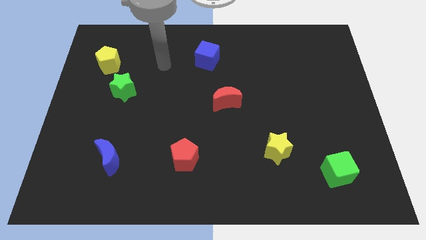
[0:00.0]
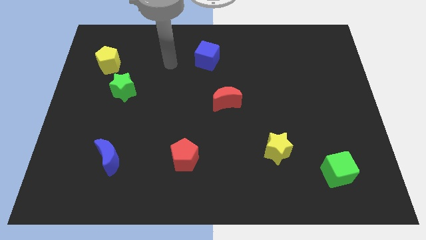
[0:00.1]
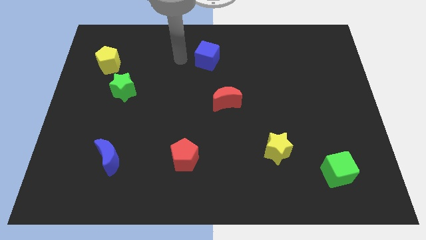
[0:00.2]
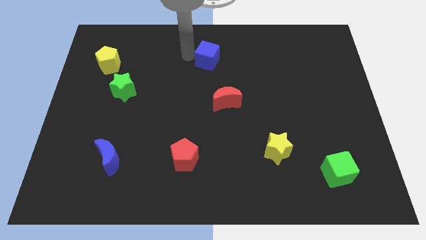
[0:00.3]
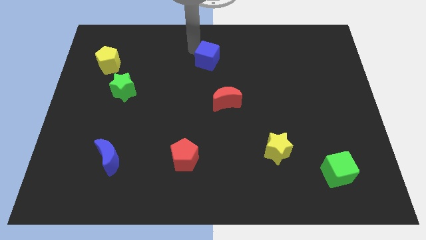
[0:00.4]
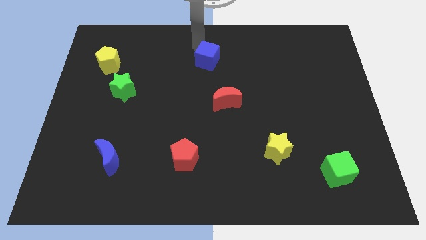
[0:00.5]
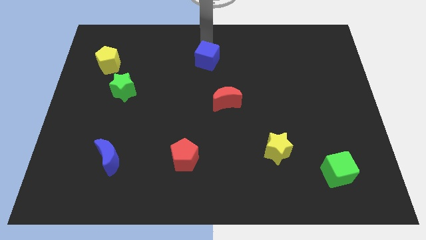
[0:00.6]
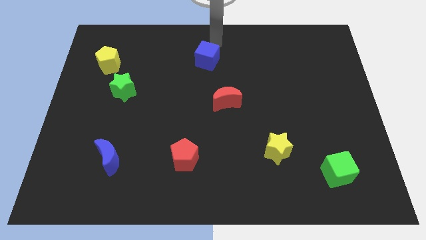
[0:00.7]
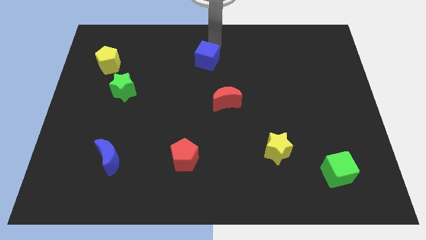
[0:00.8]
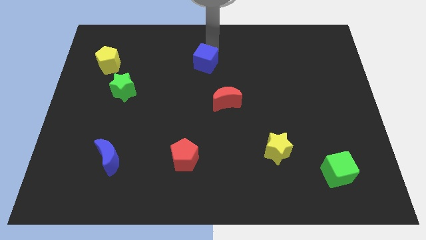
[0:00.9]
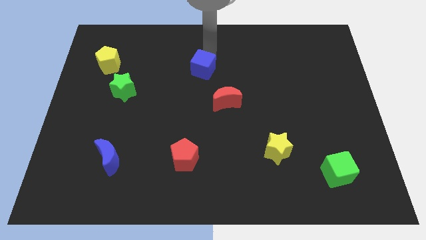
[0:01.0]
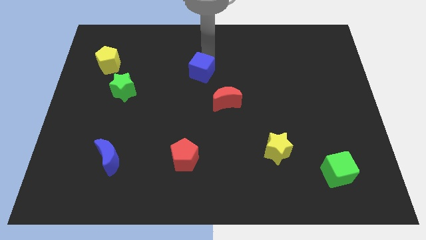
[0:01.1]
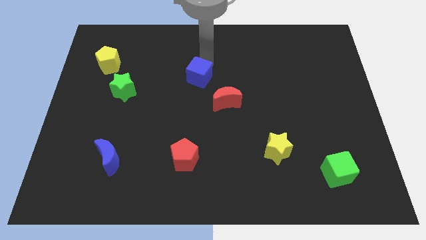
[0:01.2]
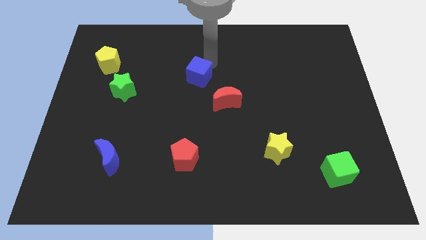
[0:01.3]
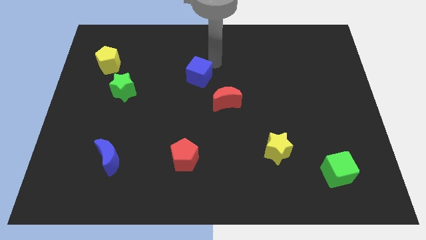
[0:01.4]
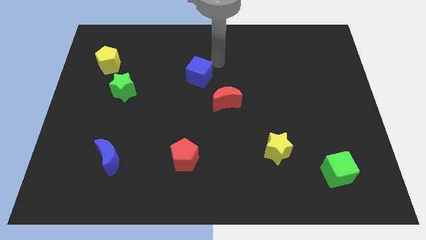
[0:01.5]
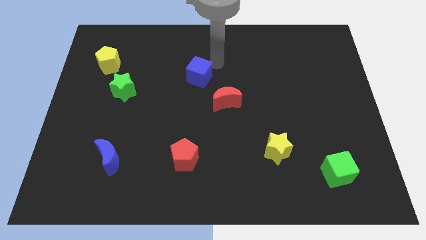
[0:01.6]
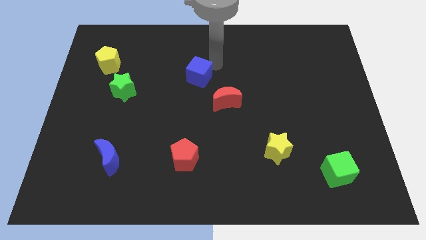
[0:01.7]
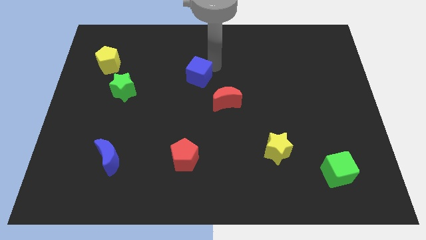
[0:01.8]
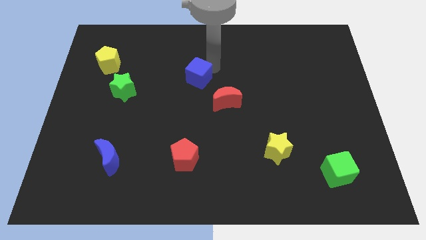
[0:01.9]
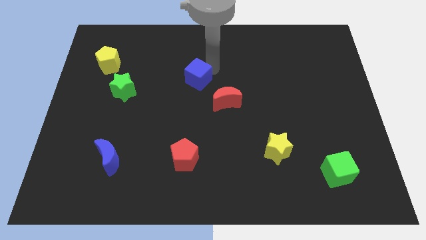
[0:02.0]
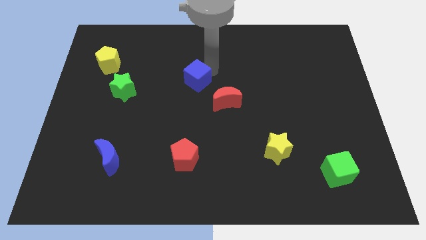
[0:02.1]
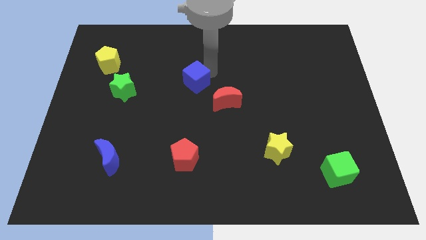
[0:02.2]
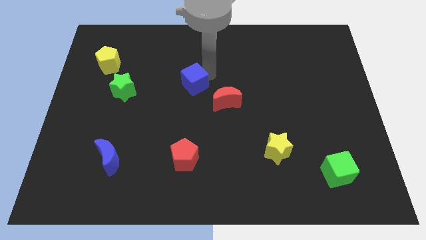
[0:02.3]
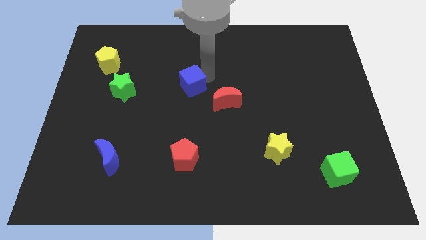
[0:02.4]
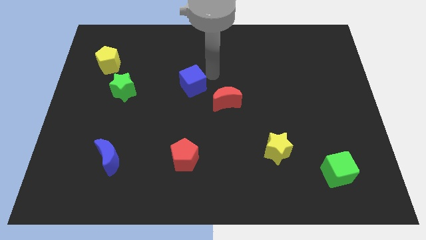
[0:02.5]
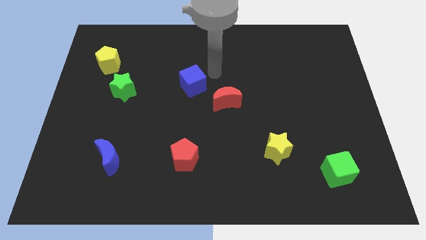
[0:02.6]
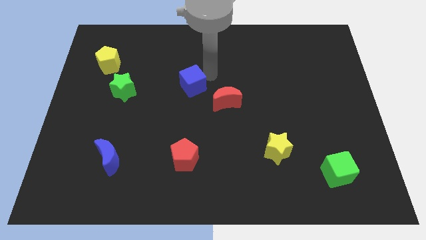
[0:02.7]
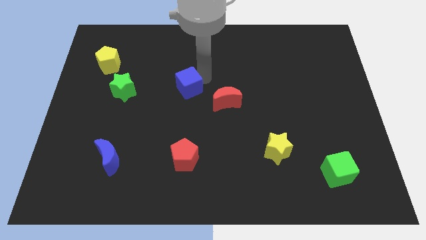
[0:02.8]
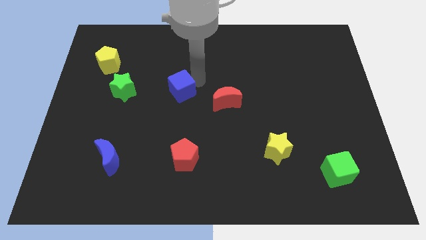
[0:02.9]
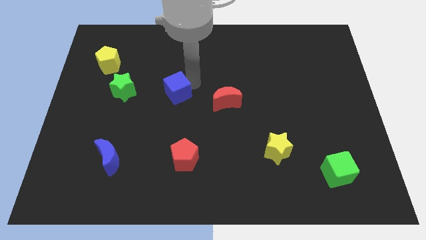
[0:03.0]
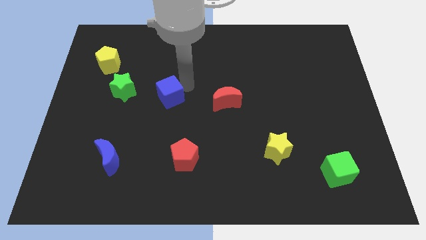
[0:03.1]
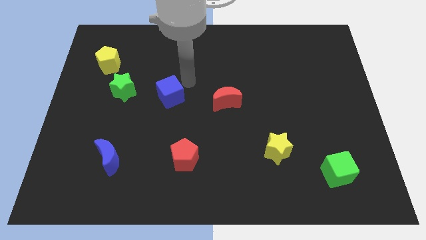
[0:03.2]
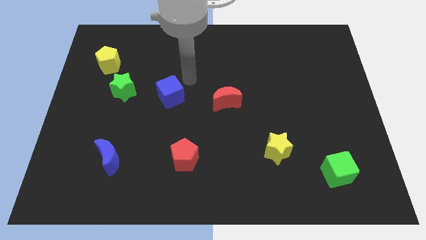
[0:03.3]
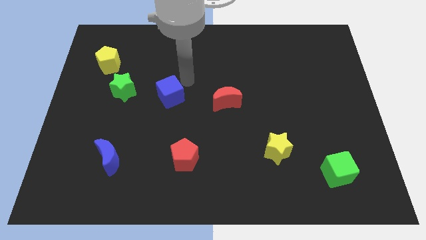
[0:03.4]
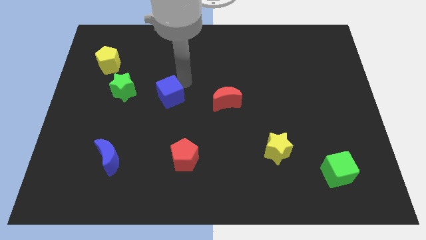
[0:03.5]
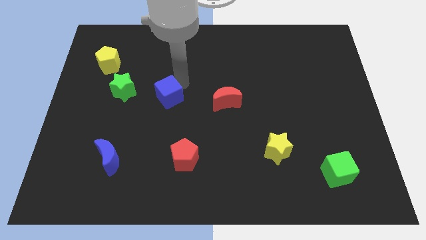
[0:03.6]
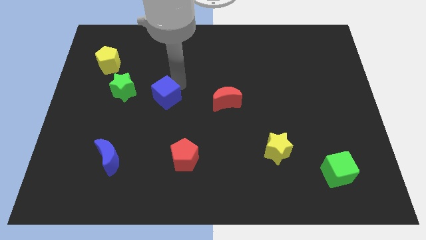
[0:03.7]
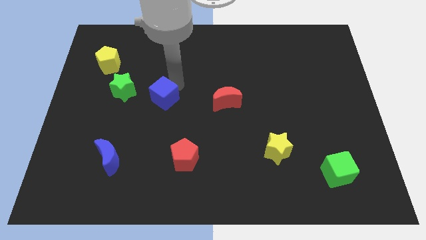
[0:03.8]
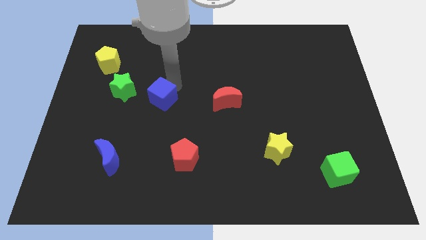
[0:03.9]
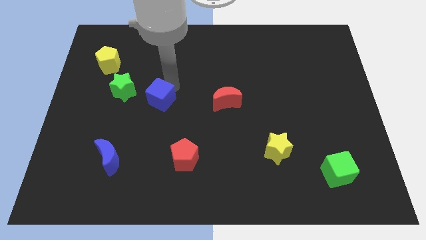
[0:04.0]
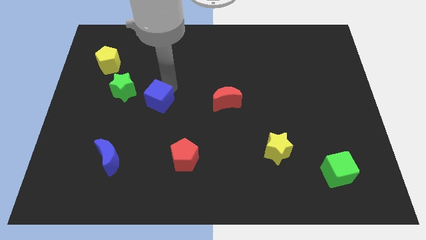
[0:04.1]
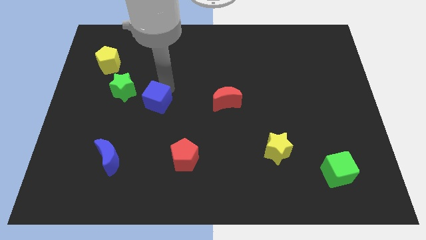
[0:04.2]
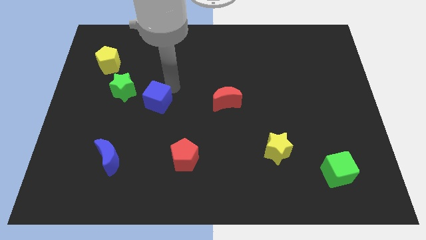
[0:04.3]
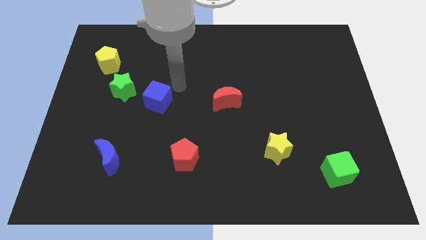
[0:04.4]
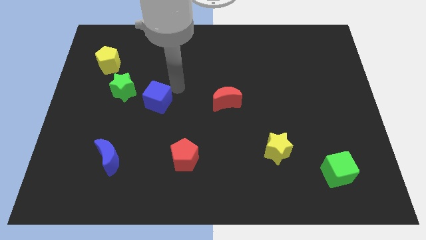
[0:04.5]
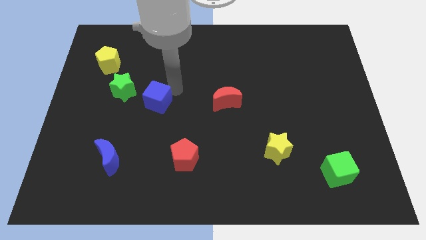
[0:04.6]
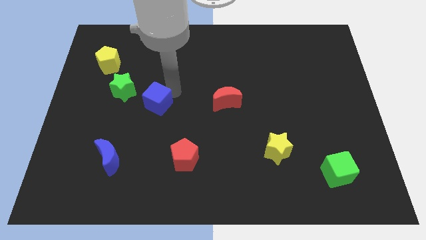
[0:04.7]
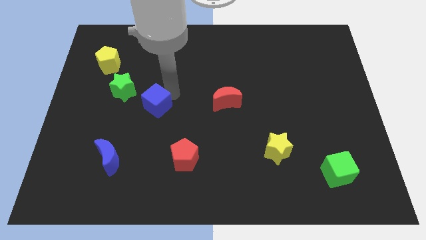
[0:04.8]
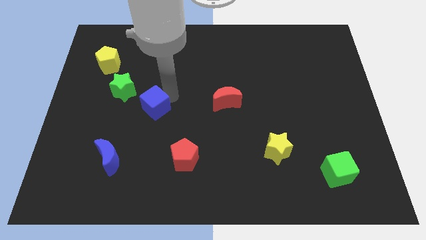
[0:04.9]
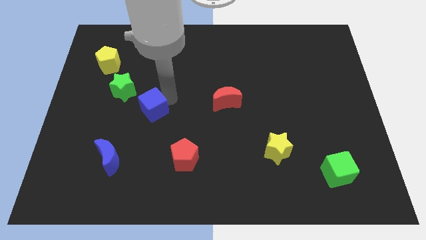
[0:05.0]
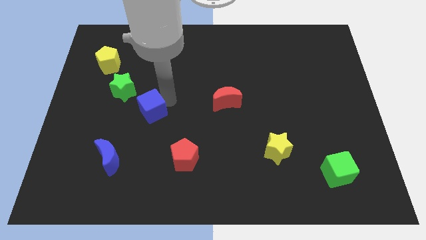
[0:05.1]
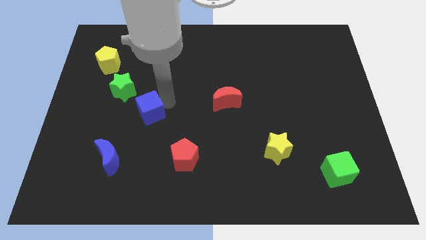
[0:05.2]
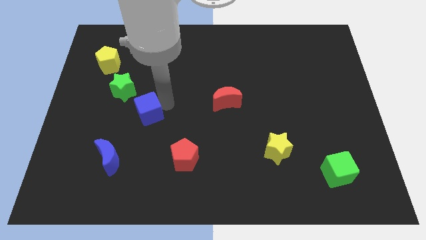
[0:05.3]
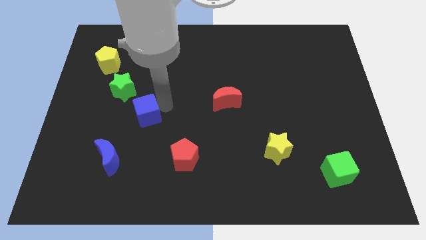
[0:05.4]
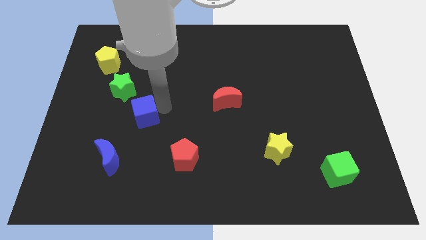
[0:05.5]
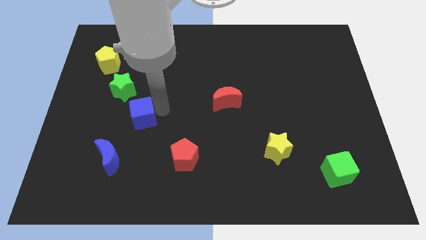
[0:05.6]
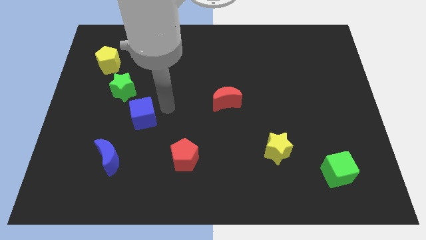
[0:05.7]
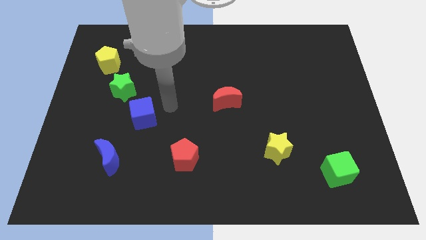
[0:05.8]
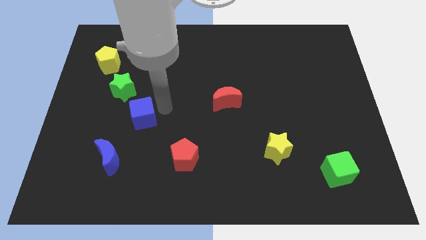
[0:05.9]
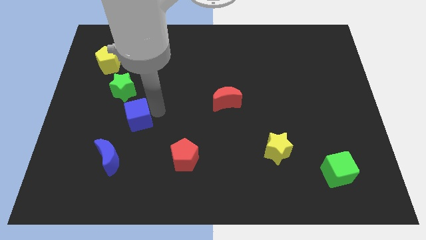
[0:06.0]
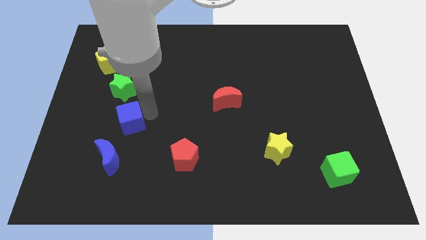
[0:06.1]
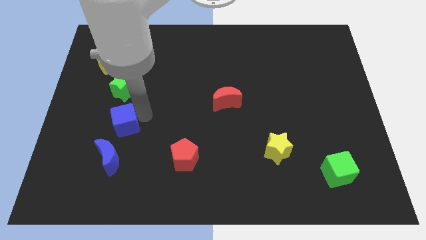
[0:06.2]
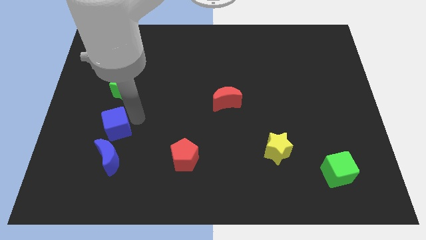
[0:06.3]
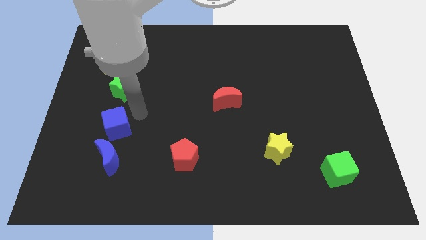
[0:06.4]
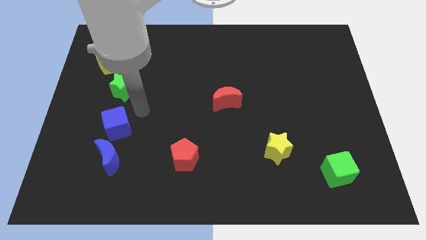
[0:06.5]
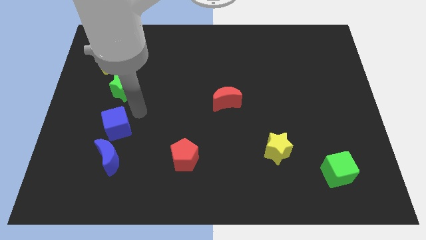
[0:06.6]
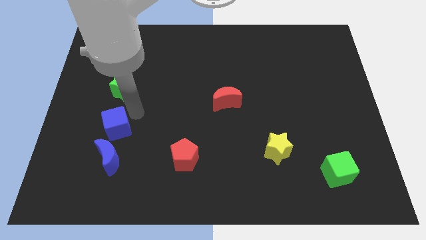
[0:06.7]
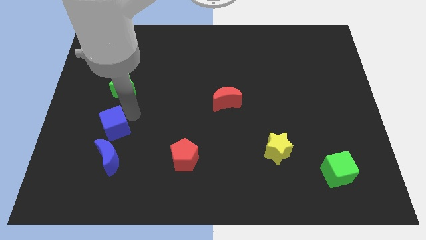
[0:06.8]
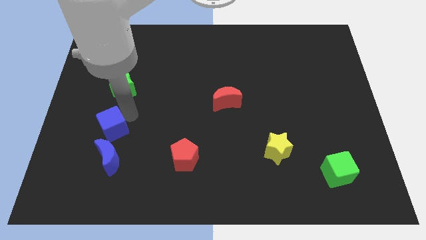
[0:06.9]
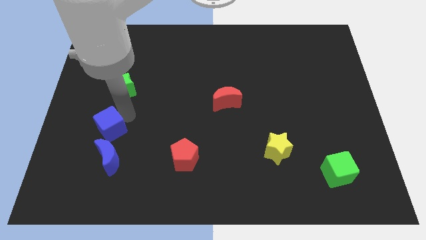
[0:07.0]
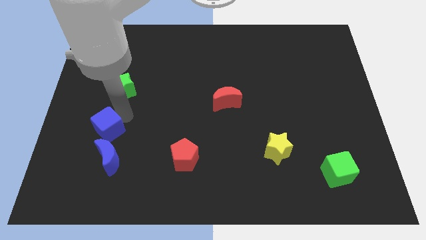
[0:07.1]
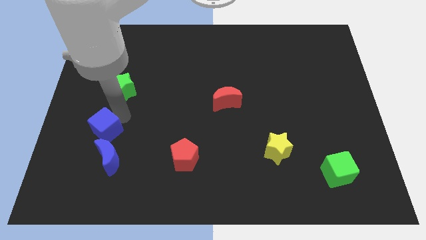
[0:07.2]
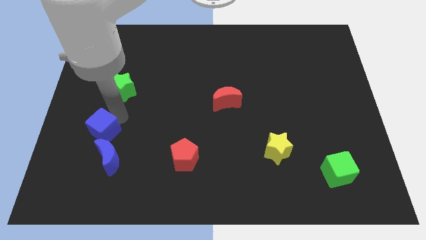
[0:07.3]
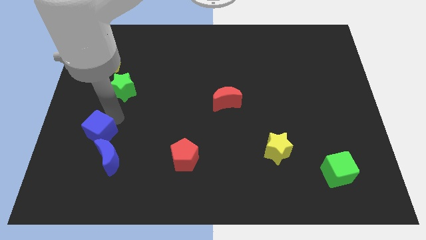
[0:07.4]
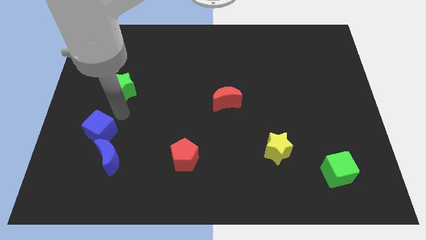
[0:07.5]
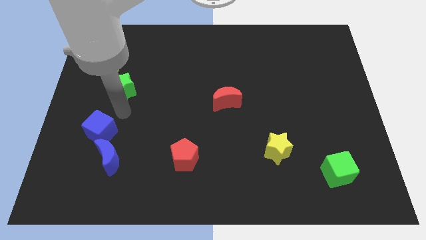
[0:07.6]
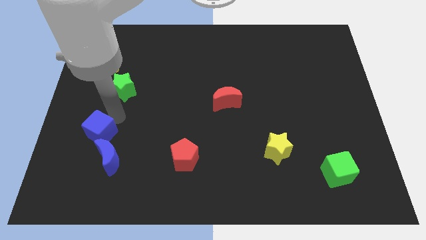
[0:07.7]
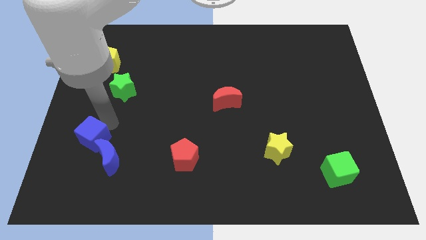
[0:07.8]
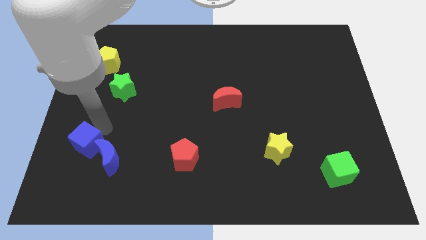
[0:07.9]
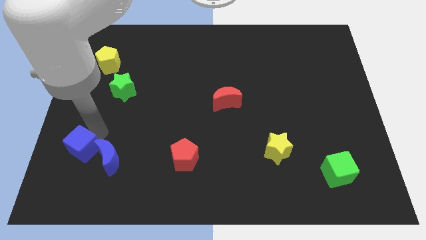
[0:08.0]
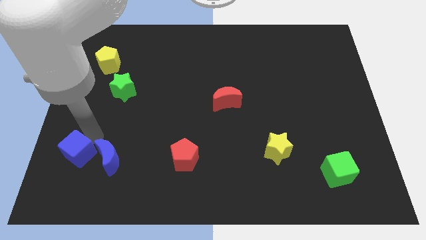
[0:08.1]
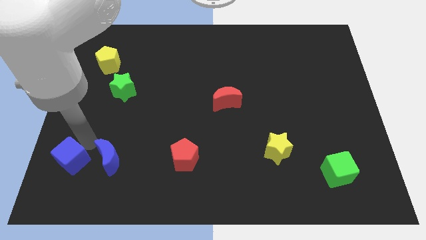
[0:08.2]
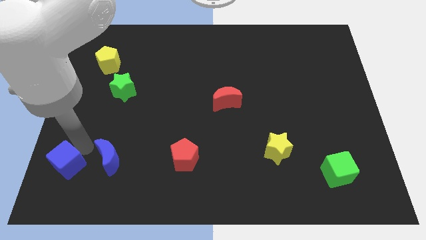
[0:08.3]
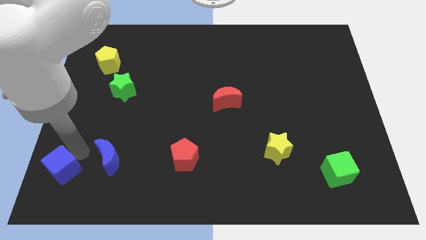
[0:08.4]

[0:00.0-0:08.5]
move the blue cube to the bottom left
